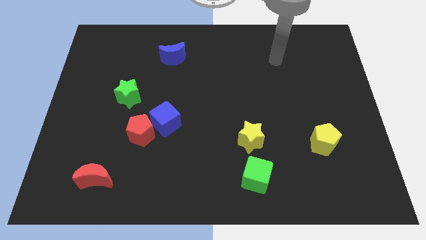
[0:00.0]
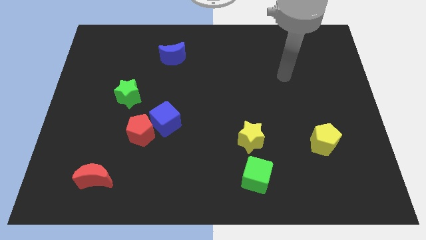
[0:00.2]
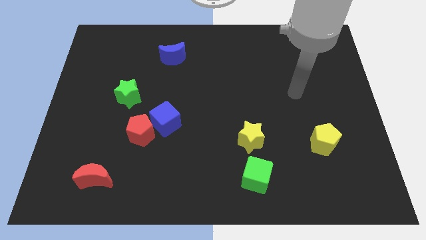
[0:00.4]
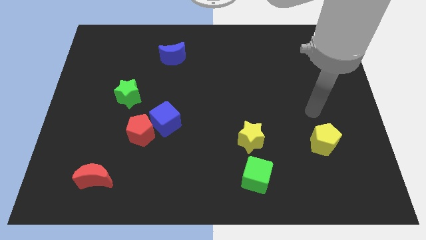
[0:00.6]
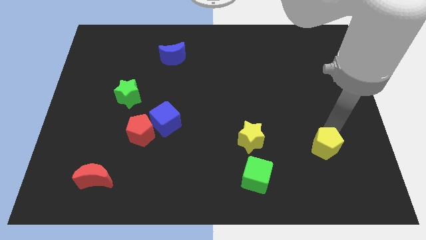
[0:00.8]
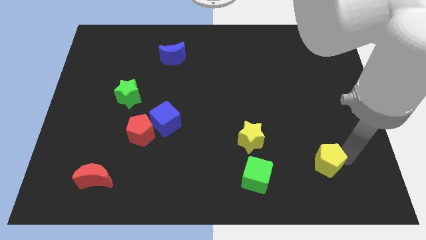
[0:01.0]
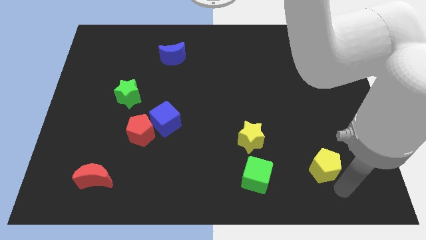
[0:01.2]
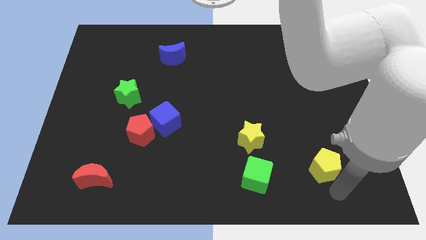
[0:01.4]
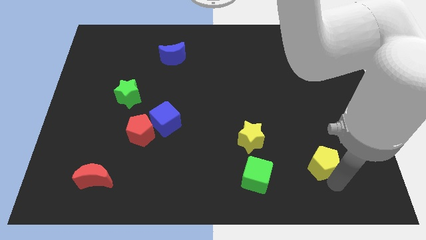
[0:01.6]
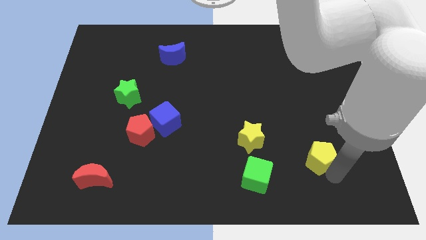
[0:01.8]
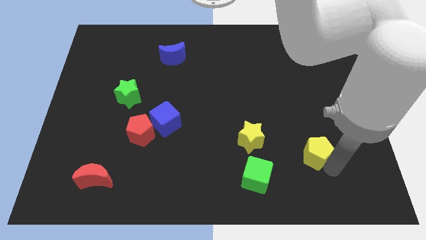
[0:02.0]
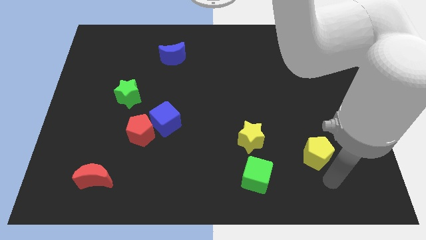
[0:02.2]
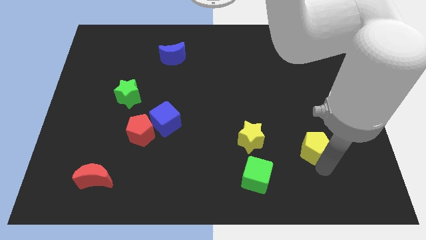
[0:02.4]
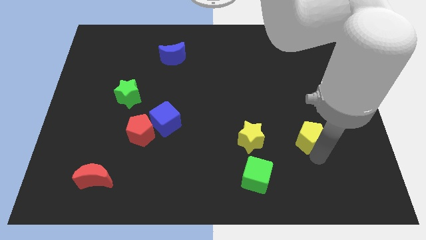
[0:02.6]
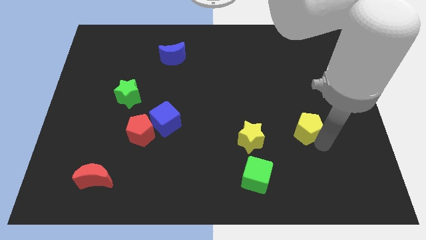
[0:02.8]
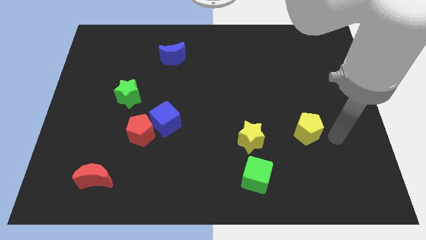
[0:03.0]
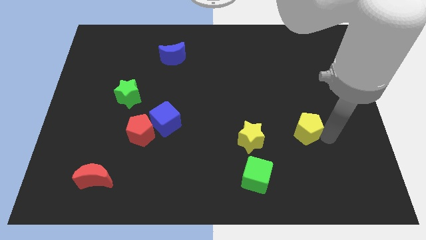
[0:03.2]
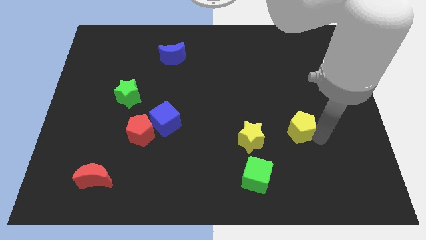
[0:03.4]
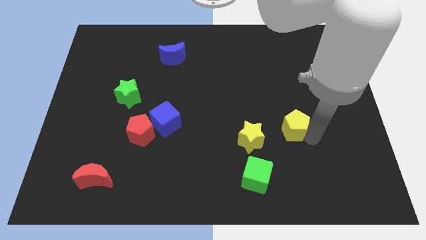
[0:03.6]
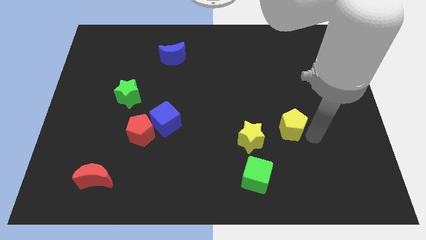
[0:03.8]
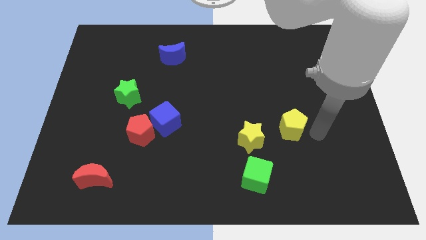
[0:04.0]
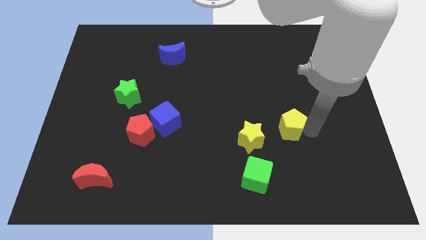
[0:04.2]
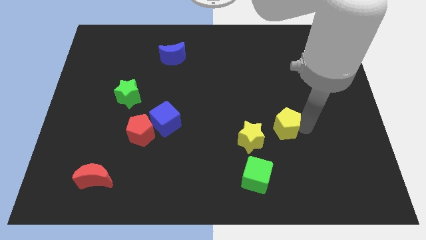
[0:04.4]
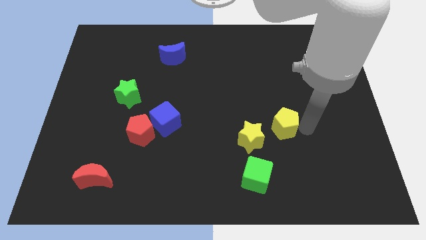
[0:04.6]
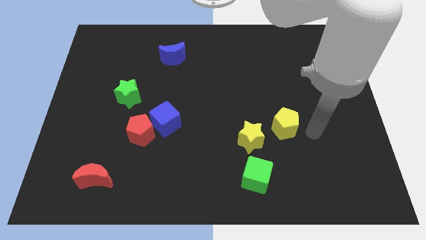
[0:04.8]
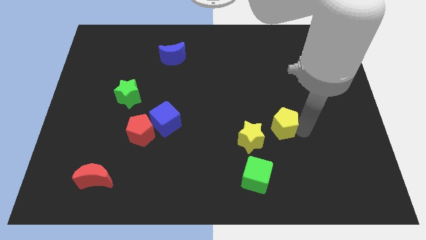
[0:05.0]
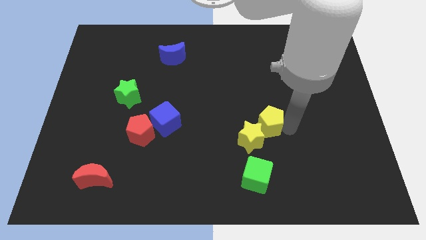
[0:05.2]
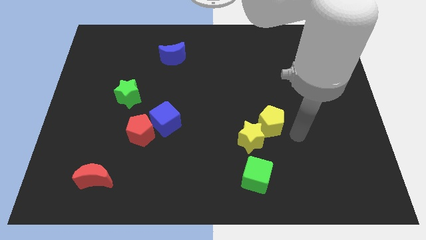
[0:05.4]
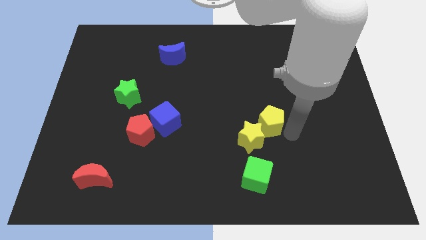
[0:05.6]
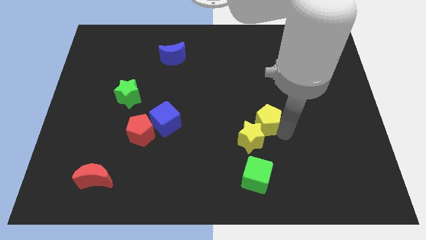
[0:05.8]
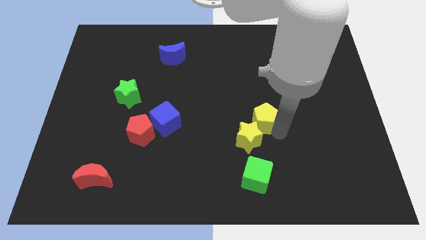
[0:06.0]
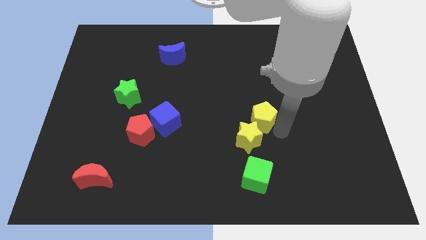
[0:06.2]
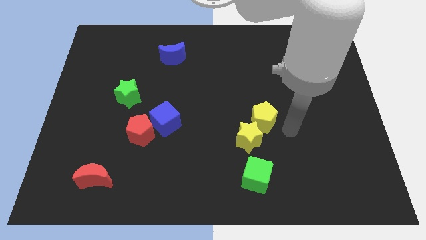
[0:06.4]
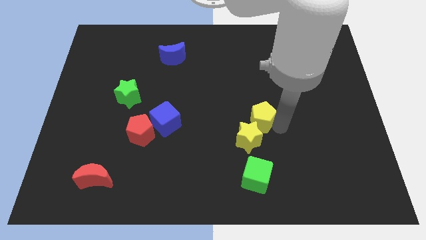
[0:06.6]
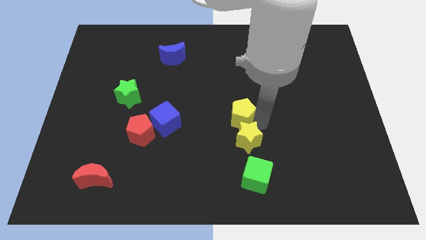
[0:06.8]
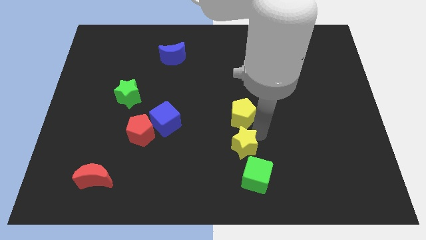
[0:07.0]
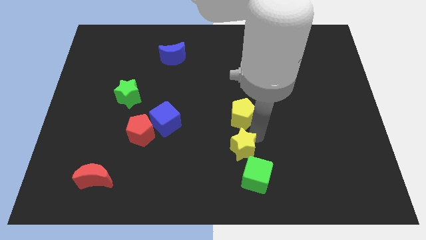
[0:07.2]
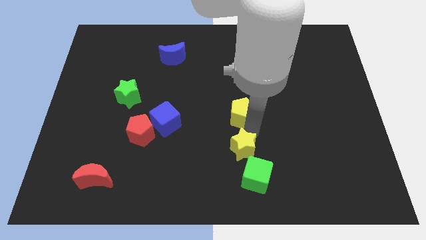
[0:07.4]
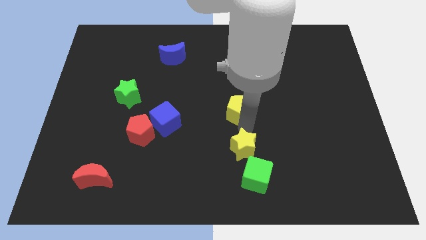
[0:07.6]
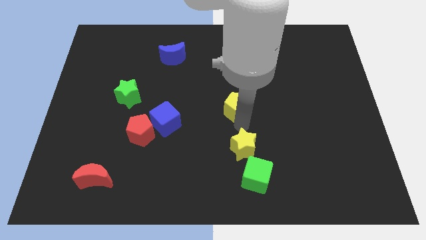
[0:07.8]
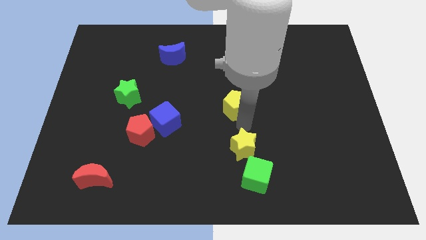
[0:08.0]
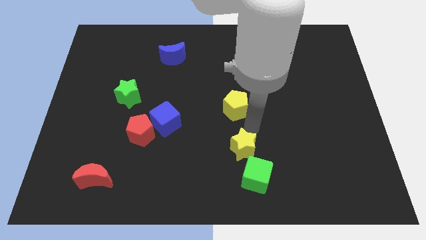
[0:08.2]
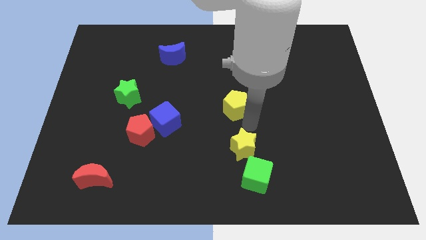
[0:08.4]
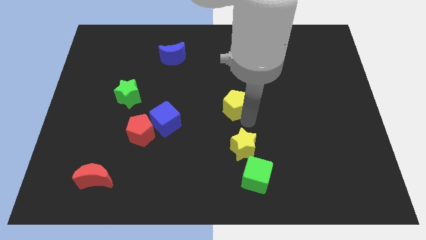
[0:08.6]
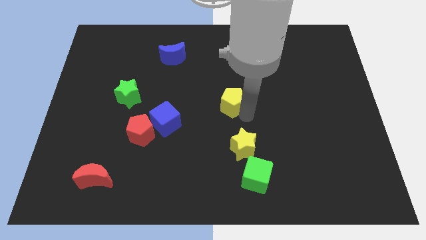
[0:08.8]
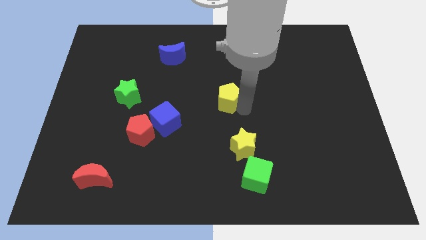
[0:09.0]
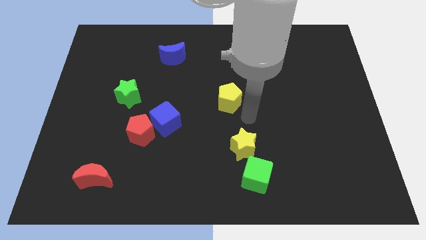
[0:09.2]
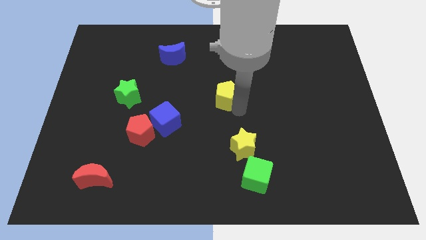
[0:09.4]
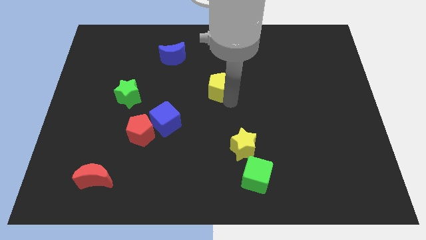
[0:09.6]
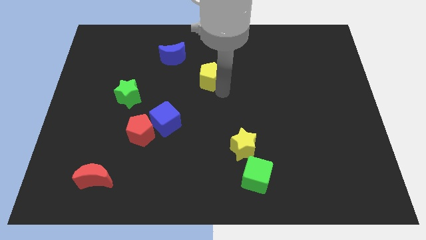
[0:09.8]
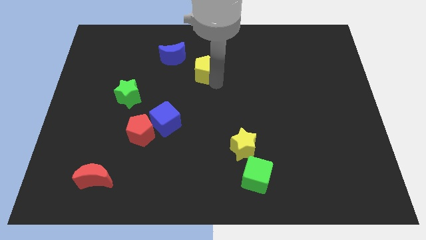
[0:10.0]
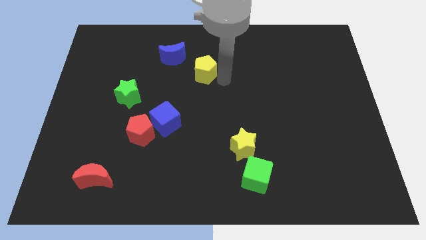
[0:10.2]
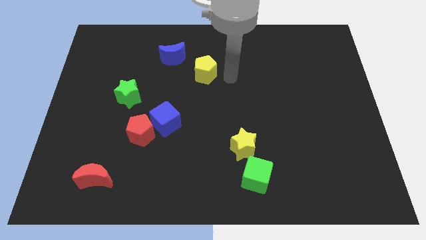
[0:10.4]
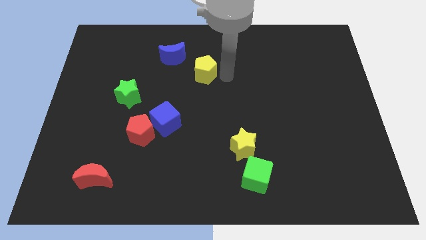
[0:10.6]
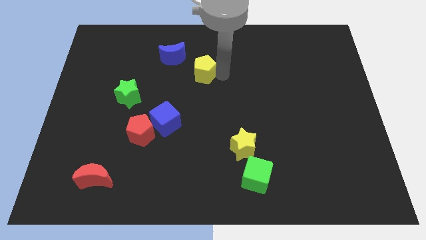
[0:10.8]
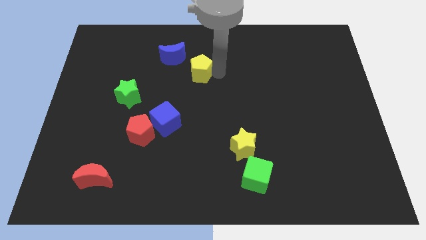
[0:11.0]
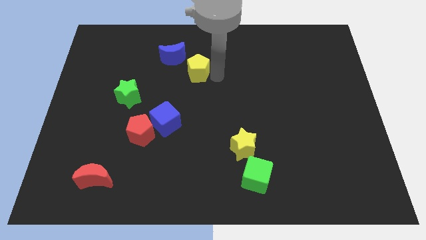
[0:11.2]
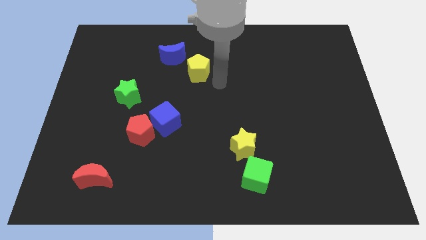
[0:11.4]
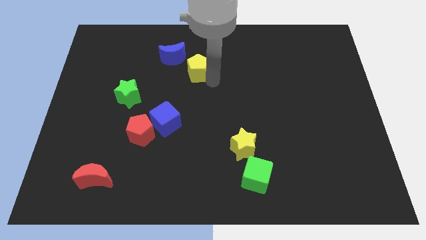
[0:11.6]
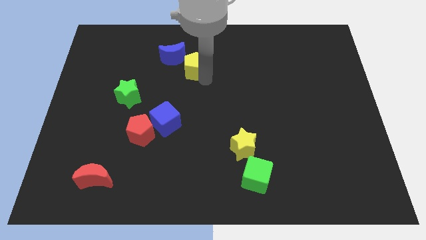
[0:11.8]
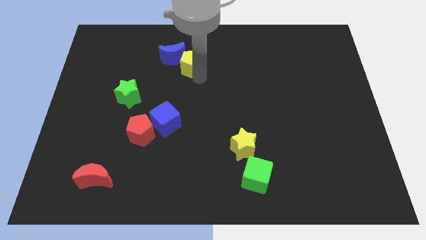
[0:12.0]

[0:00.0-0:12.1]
push the yellow pentagon close to the blue moon

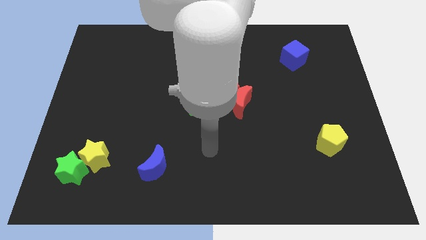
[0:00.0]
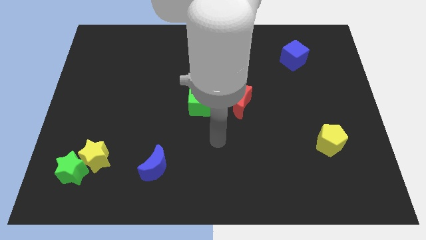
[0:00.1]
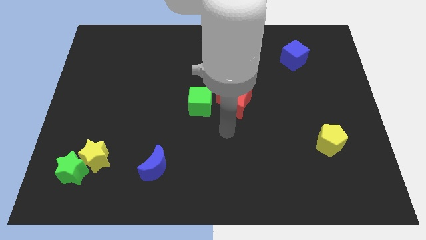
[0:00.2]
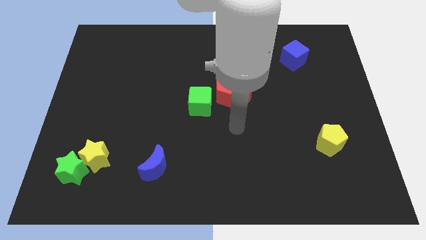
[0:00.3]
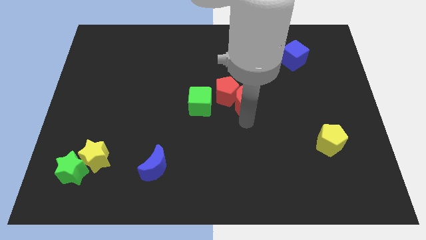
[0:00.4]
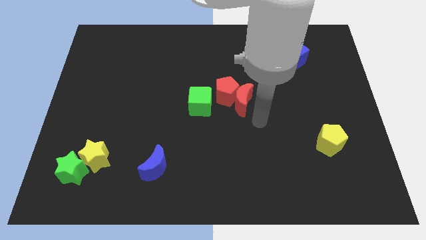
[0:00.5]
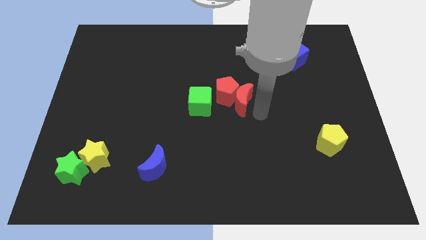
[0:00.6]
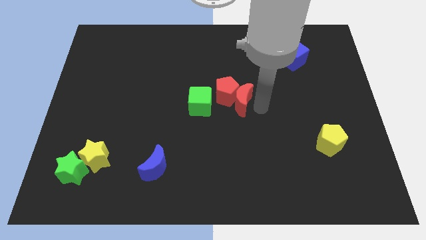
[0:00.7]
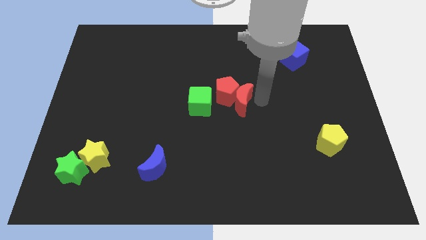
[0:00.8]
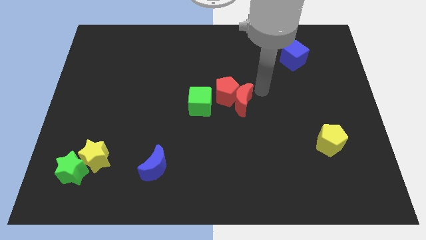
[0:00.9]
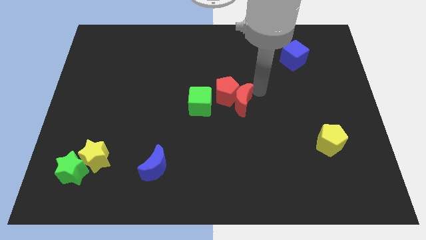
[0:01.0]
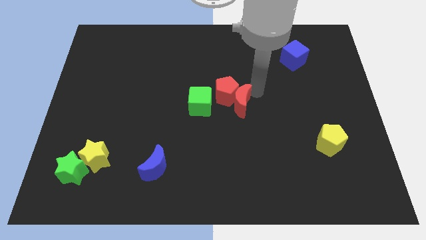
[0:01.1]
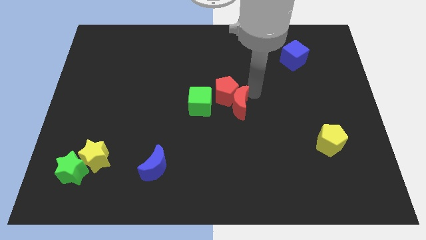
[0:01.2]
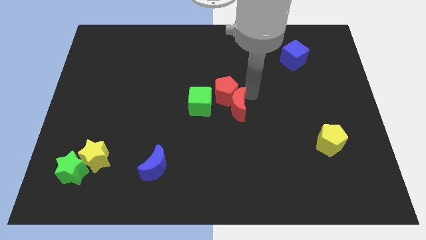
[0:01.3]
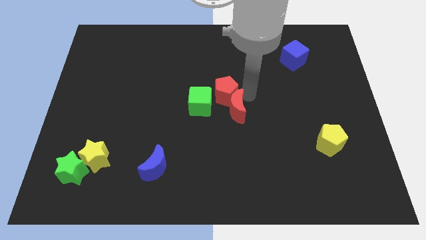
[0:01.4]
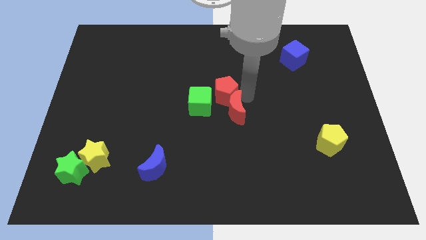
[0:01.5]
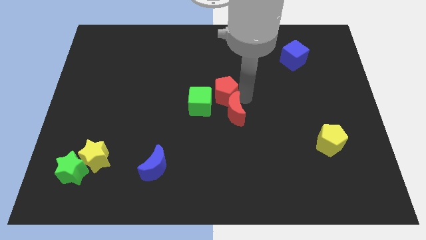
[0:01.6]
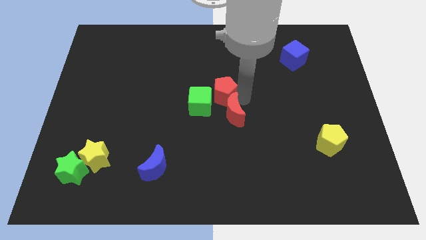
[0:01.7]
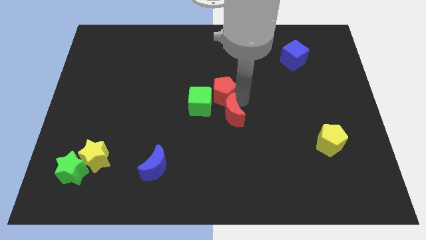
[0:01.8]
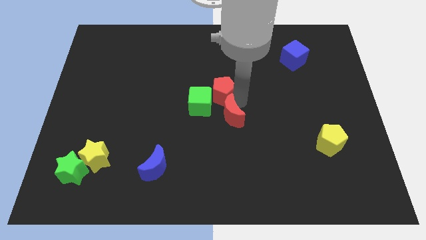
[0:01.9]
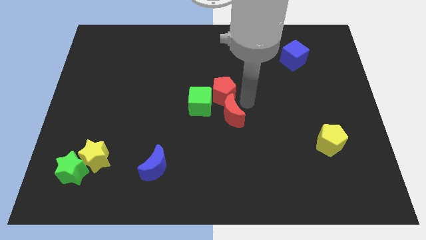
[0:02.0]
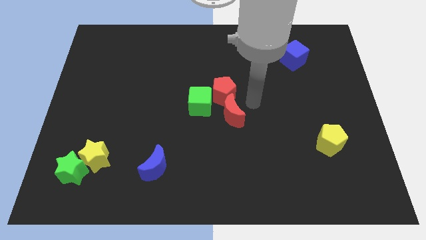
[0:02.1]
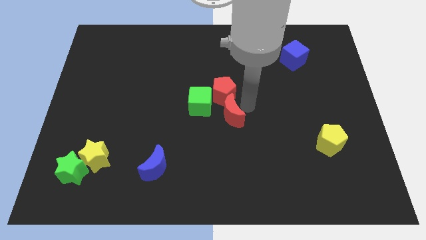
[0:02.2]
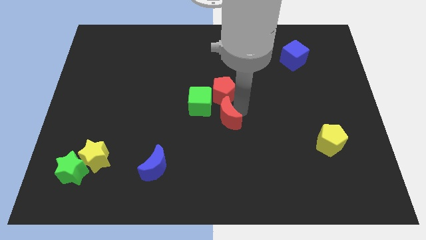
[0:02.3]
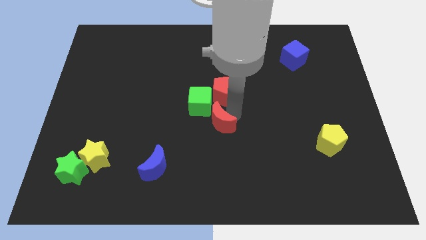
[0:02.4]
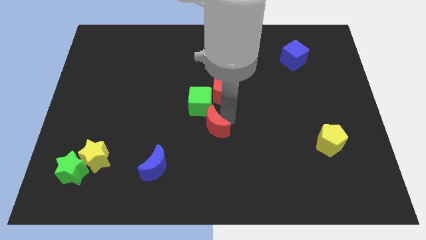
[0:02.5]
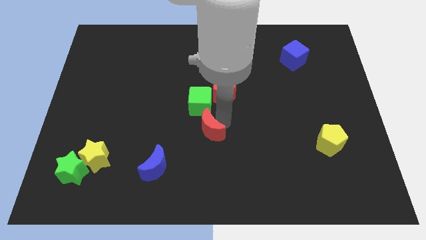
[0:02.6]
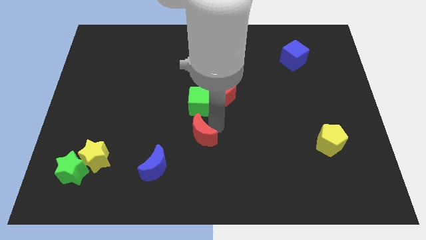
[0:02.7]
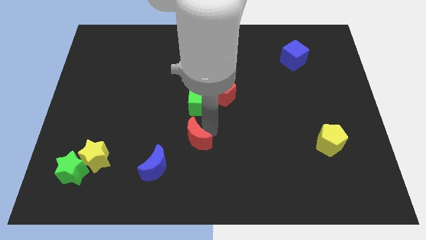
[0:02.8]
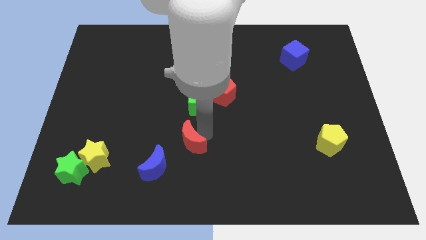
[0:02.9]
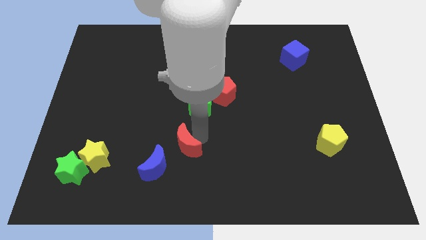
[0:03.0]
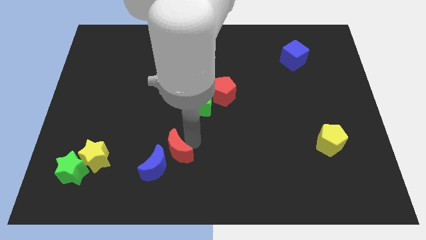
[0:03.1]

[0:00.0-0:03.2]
move the red moon towards the blue moon
